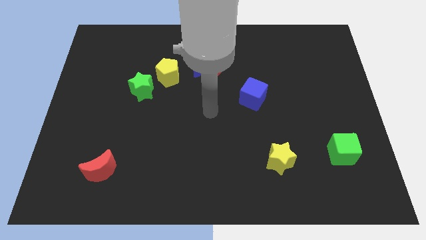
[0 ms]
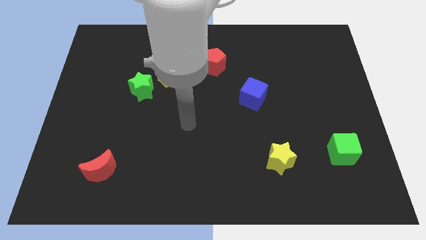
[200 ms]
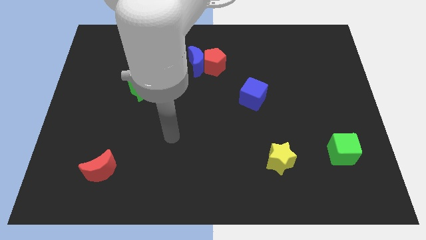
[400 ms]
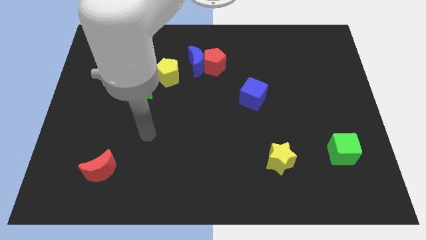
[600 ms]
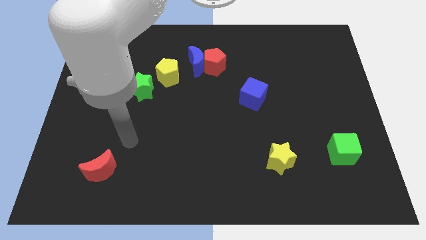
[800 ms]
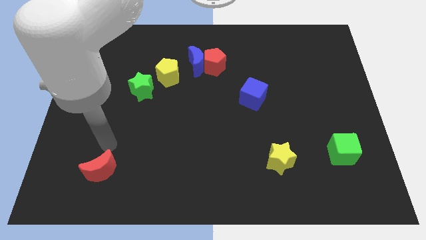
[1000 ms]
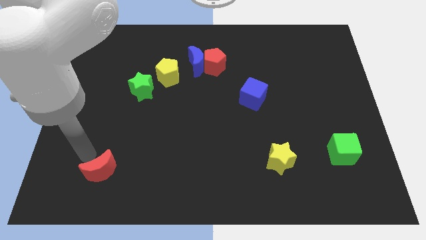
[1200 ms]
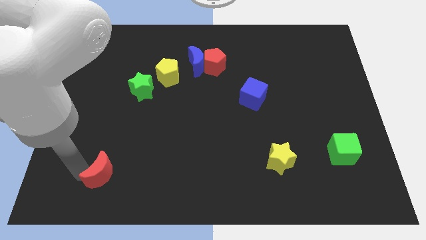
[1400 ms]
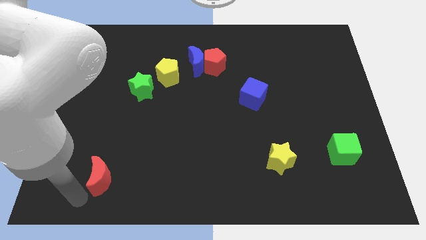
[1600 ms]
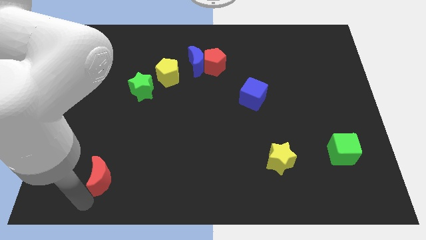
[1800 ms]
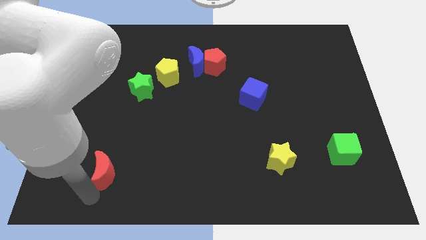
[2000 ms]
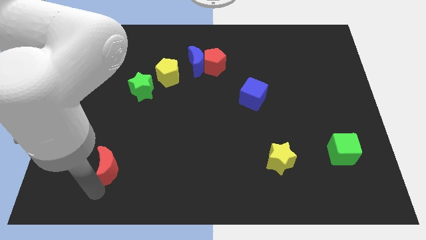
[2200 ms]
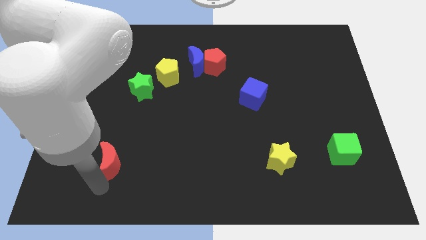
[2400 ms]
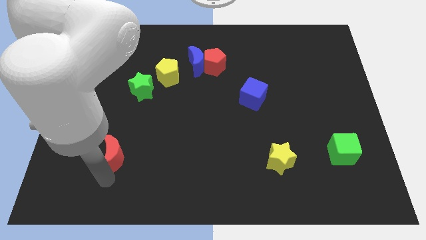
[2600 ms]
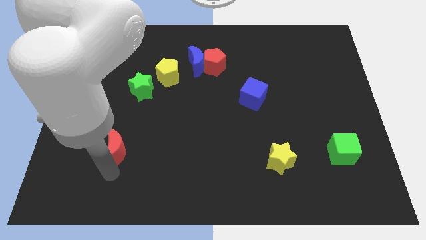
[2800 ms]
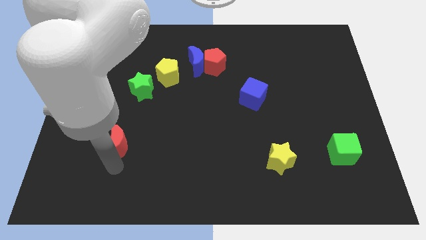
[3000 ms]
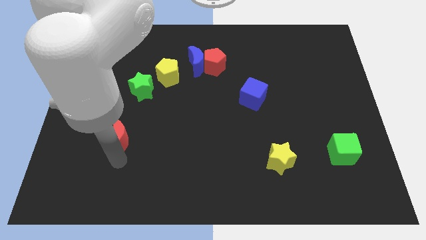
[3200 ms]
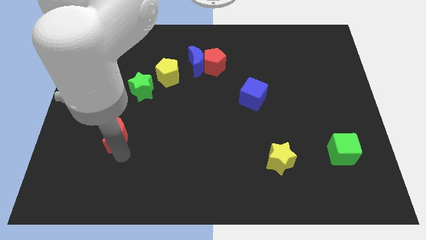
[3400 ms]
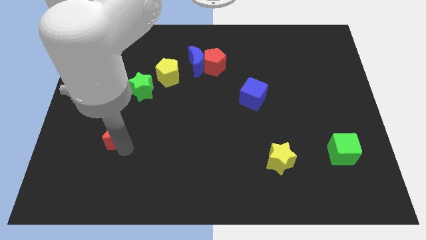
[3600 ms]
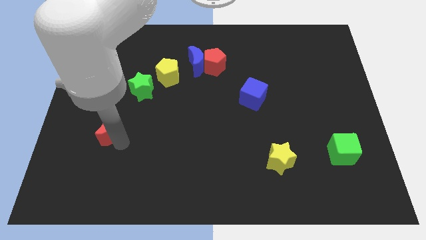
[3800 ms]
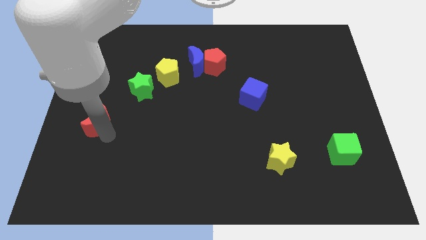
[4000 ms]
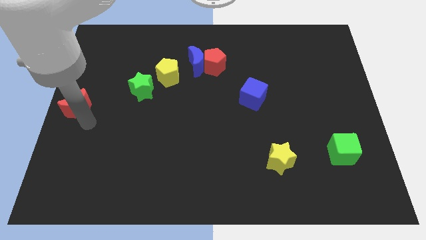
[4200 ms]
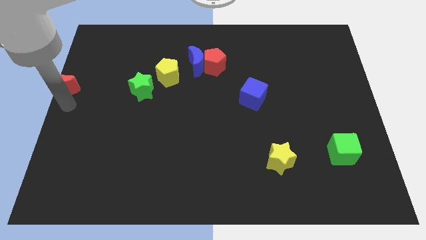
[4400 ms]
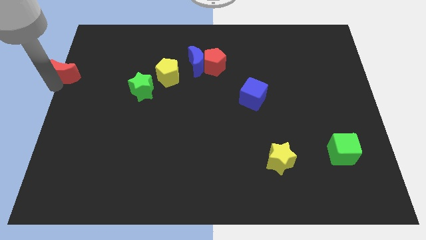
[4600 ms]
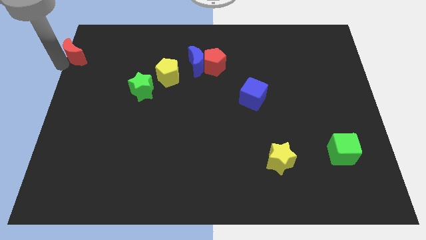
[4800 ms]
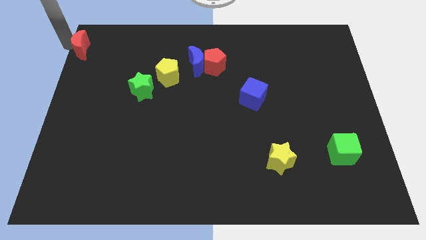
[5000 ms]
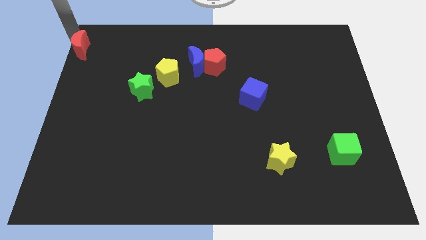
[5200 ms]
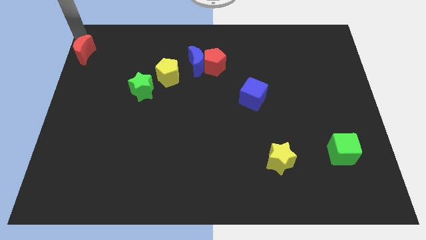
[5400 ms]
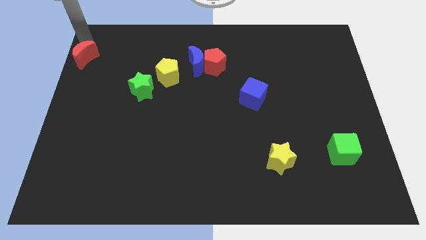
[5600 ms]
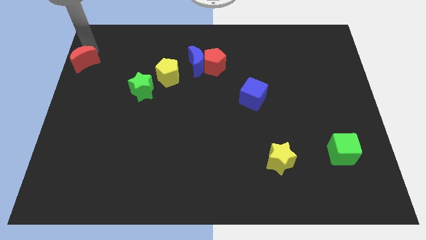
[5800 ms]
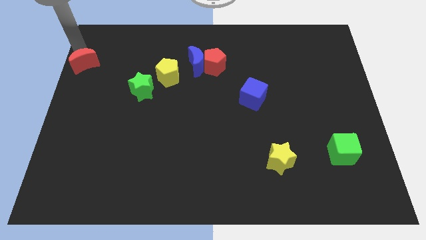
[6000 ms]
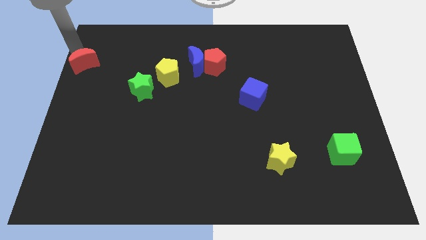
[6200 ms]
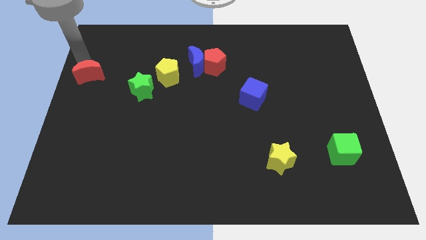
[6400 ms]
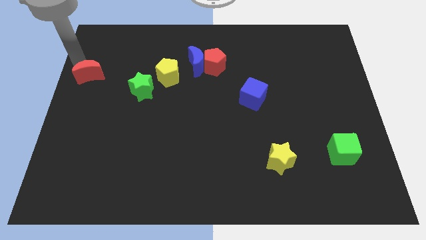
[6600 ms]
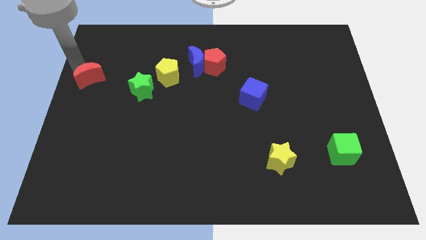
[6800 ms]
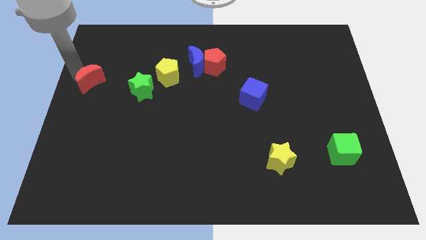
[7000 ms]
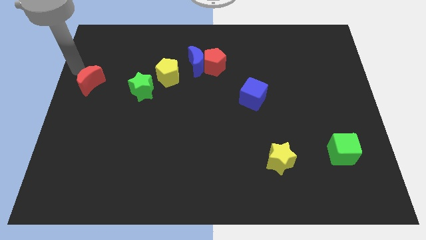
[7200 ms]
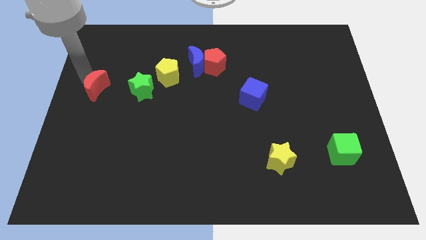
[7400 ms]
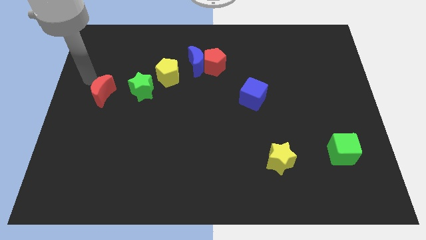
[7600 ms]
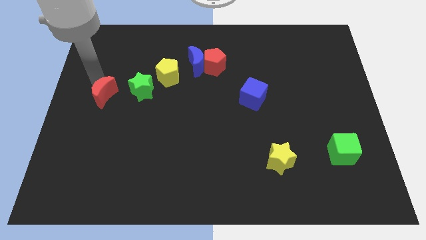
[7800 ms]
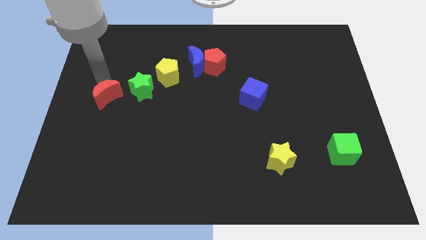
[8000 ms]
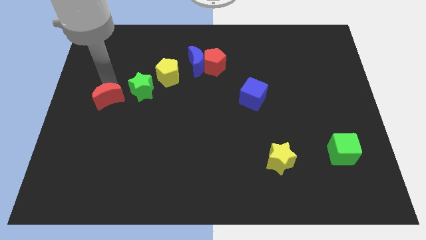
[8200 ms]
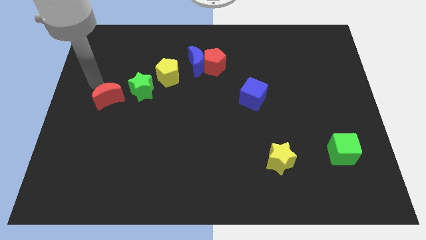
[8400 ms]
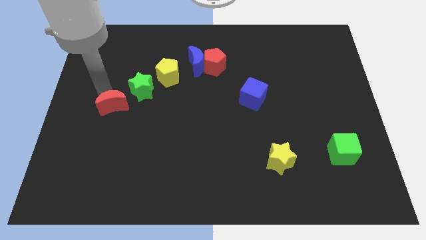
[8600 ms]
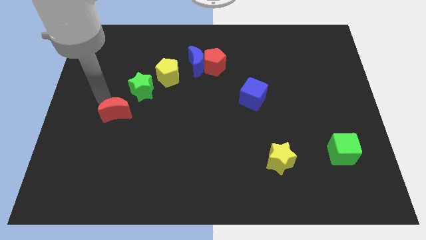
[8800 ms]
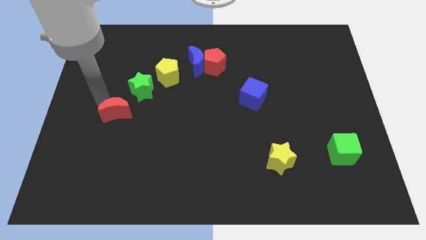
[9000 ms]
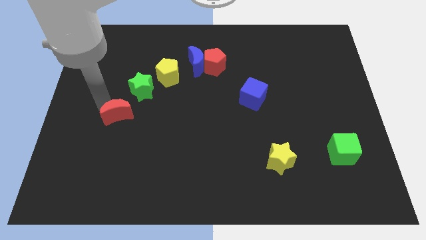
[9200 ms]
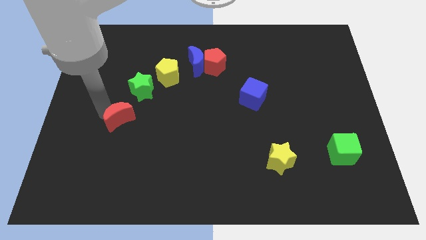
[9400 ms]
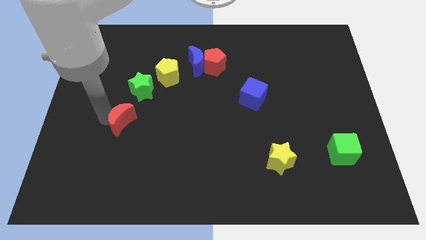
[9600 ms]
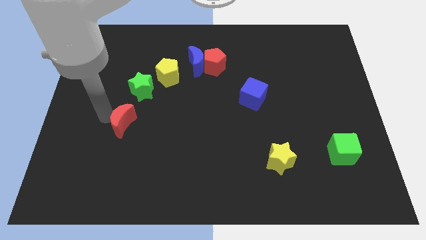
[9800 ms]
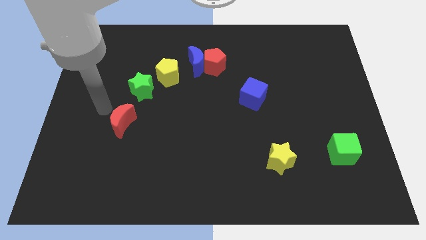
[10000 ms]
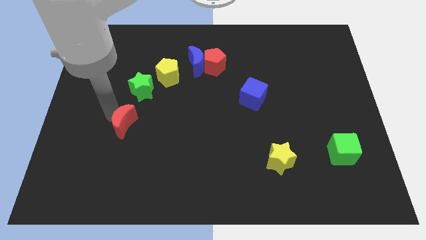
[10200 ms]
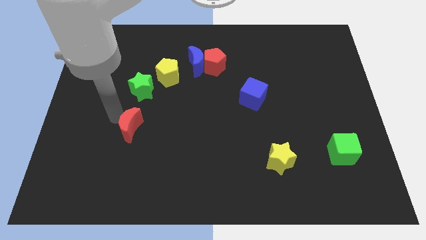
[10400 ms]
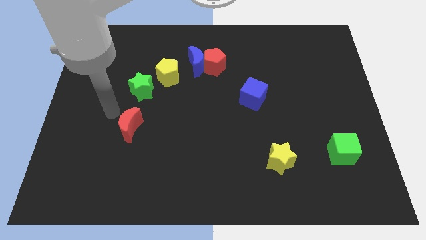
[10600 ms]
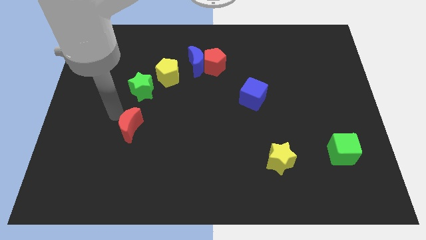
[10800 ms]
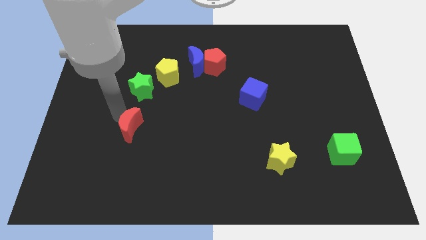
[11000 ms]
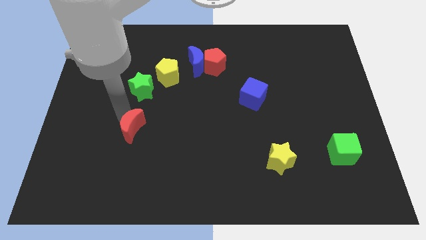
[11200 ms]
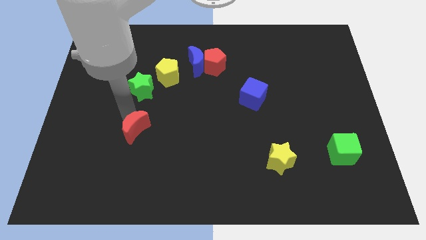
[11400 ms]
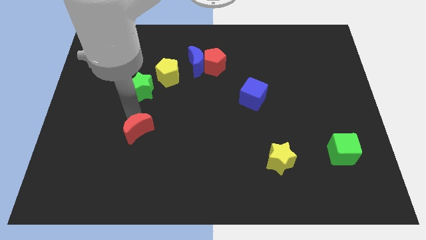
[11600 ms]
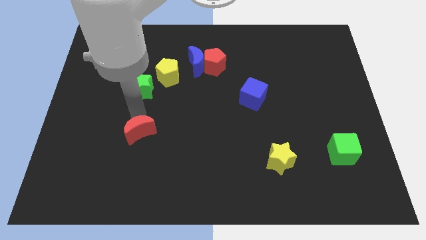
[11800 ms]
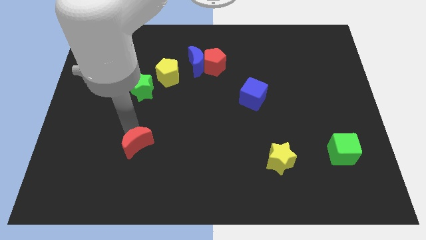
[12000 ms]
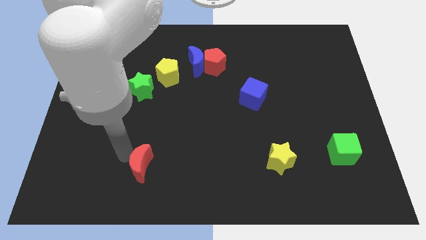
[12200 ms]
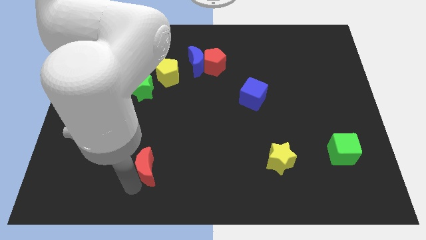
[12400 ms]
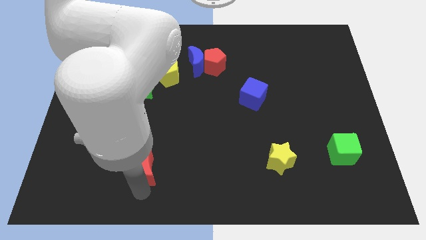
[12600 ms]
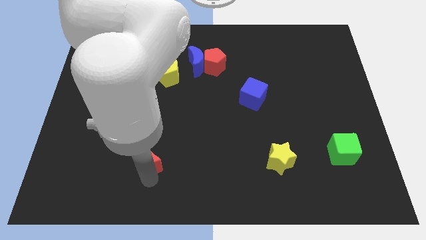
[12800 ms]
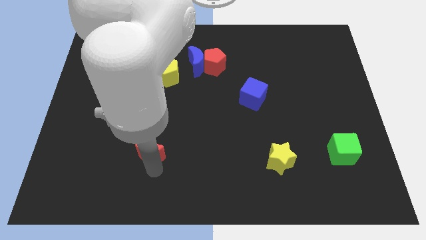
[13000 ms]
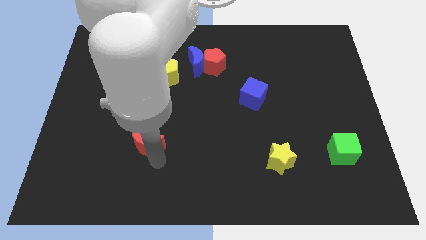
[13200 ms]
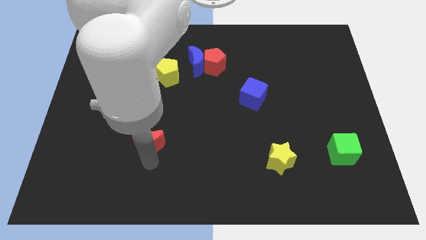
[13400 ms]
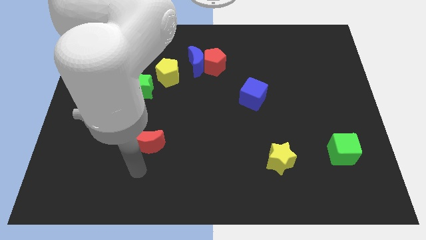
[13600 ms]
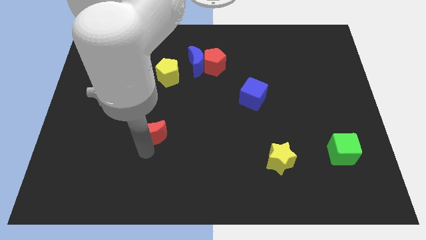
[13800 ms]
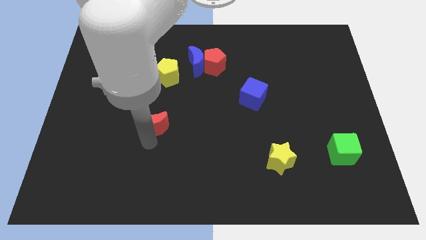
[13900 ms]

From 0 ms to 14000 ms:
push the red moon below the yellow pentagon

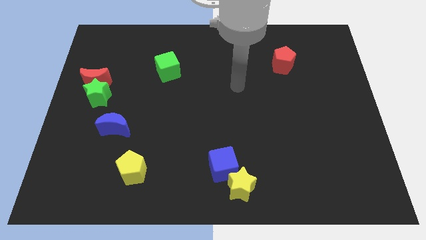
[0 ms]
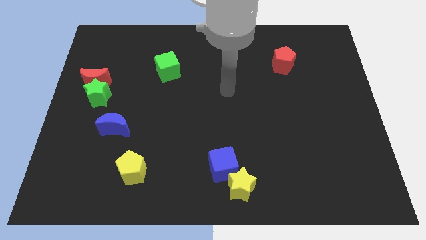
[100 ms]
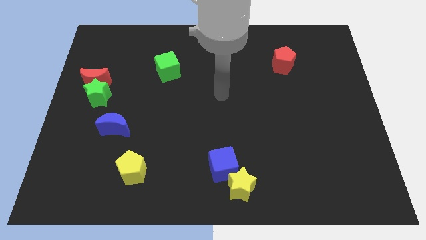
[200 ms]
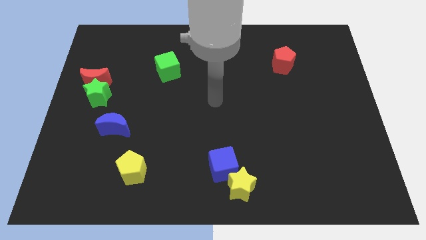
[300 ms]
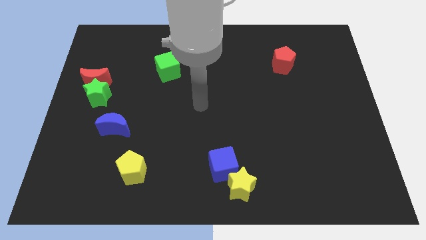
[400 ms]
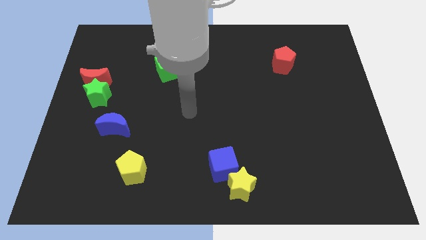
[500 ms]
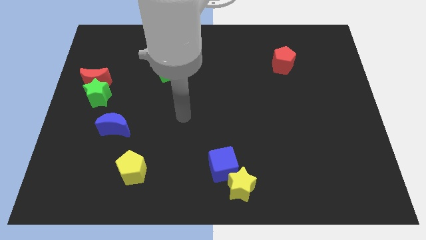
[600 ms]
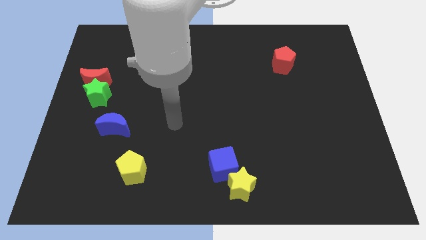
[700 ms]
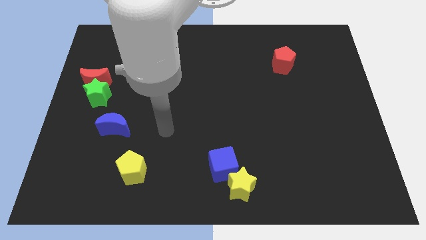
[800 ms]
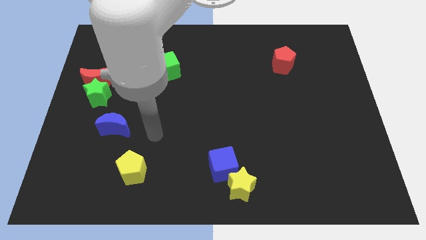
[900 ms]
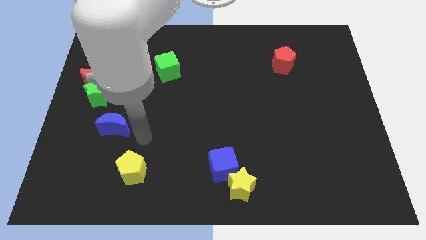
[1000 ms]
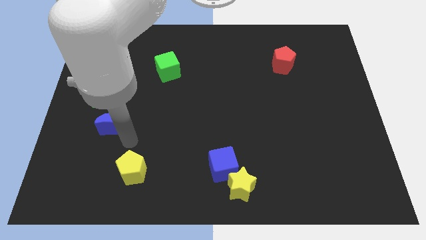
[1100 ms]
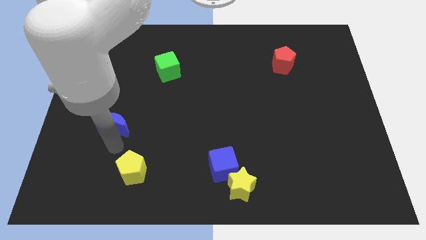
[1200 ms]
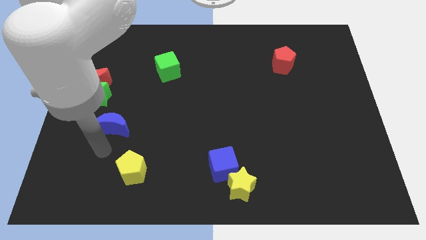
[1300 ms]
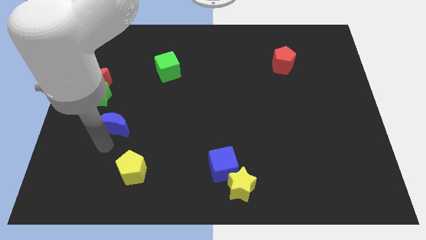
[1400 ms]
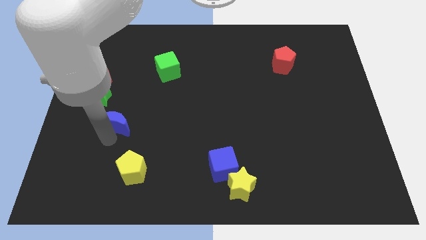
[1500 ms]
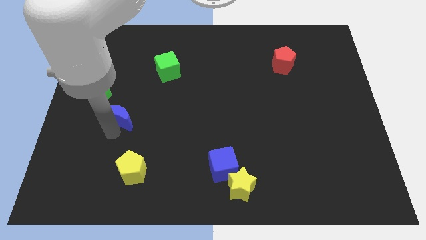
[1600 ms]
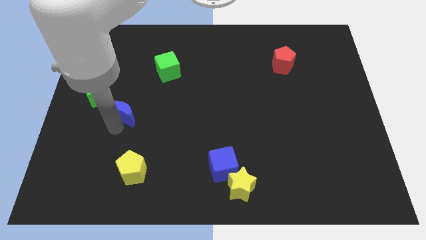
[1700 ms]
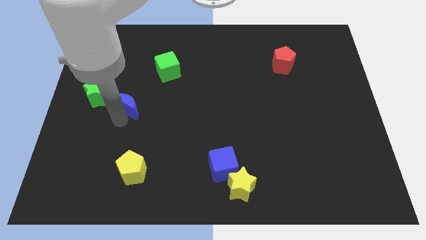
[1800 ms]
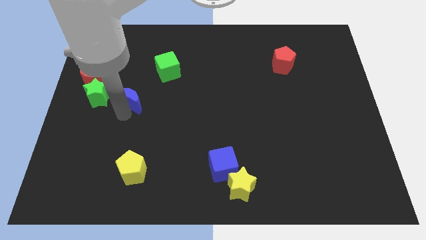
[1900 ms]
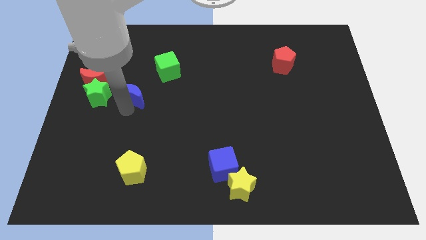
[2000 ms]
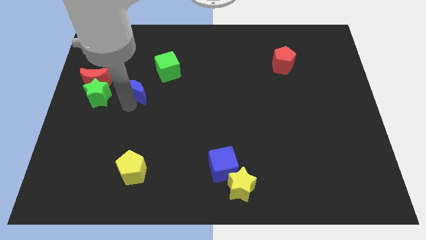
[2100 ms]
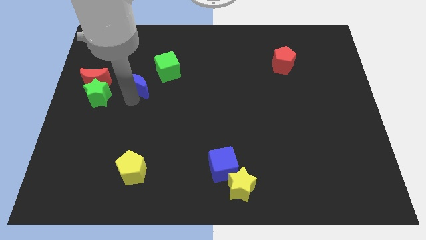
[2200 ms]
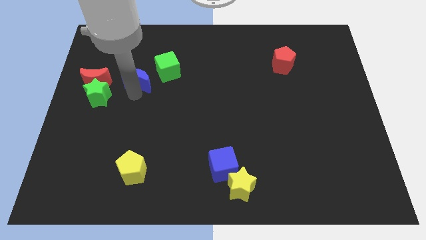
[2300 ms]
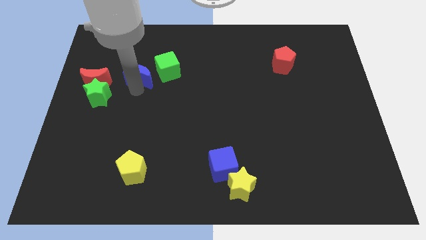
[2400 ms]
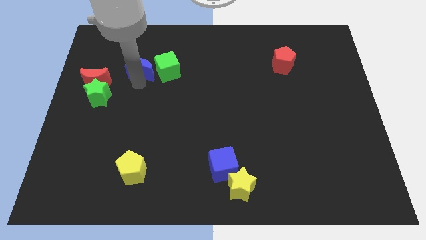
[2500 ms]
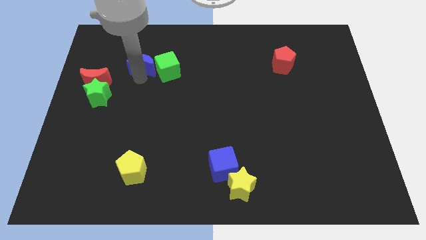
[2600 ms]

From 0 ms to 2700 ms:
slide the blue moon diagonally up and to the left of the green cube
